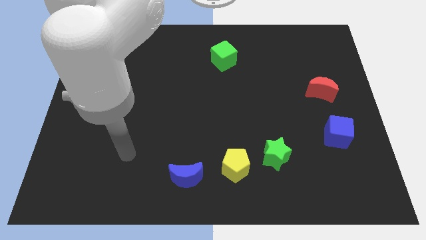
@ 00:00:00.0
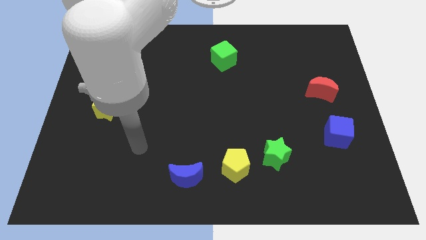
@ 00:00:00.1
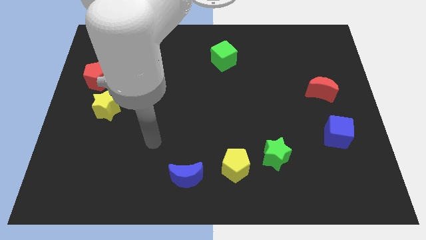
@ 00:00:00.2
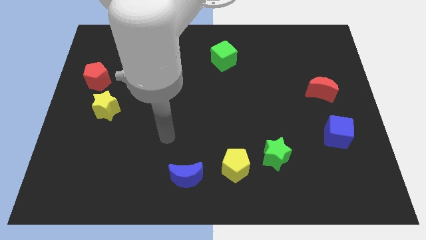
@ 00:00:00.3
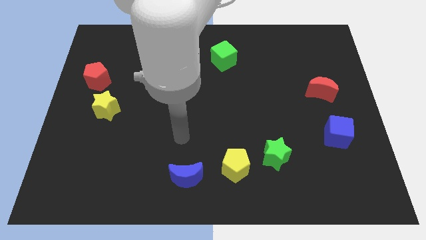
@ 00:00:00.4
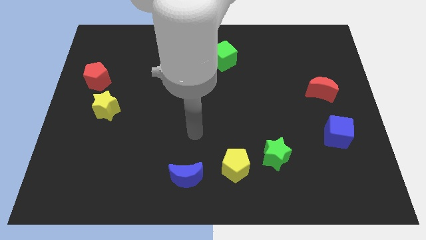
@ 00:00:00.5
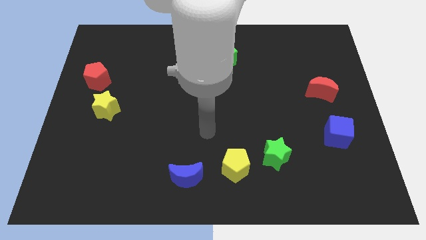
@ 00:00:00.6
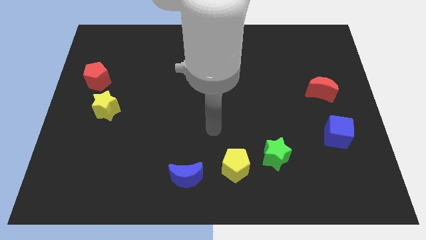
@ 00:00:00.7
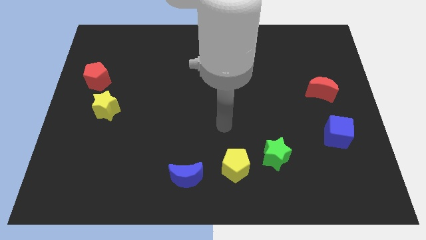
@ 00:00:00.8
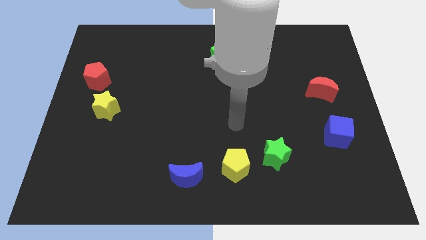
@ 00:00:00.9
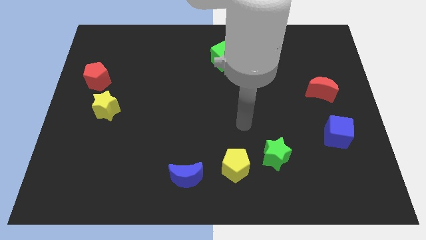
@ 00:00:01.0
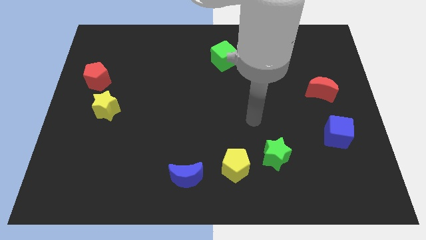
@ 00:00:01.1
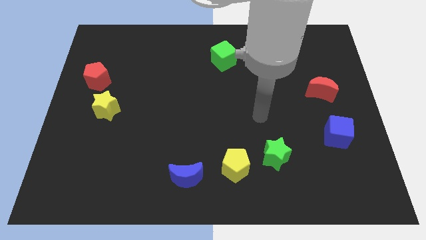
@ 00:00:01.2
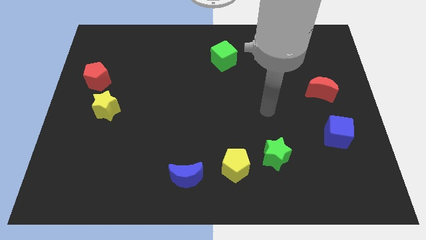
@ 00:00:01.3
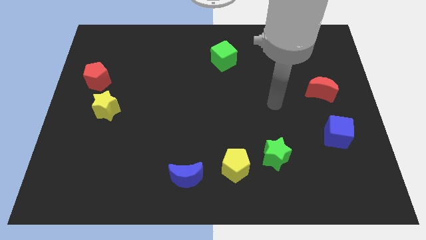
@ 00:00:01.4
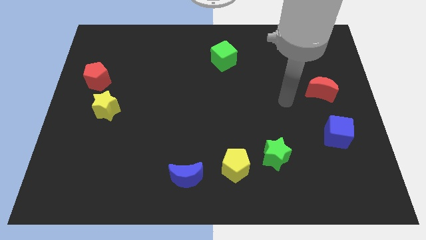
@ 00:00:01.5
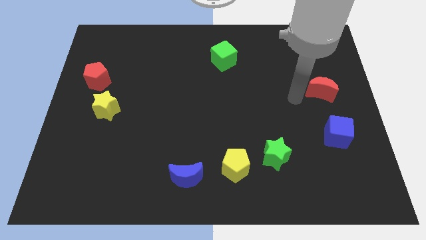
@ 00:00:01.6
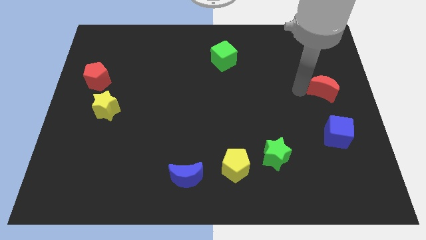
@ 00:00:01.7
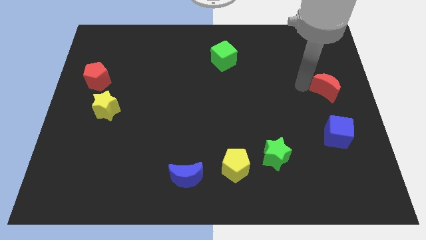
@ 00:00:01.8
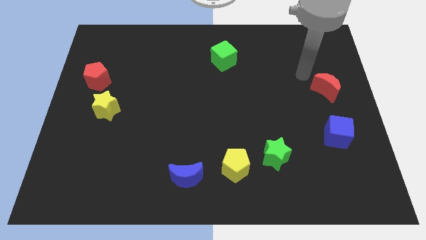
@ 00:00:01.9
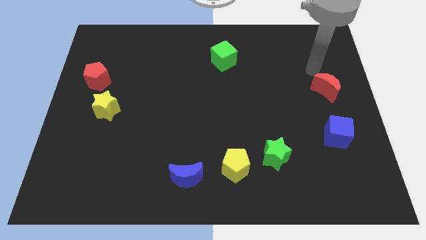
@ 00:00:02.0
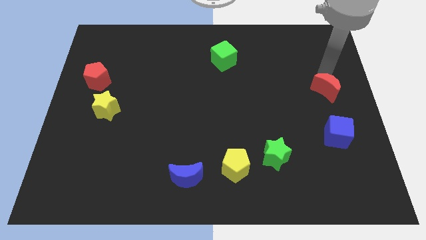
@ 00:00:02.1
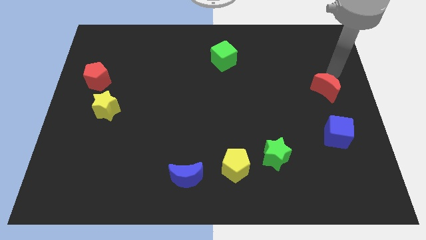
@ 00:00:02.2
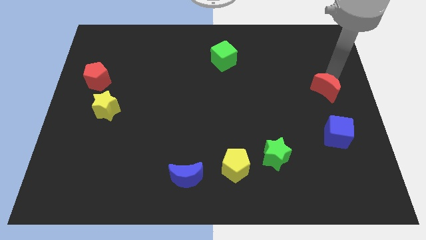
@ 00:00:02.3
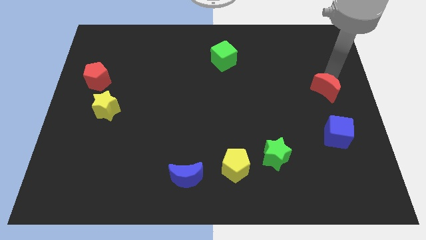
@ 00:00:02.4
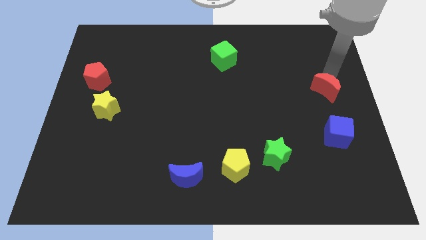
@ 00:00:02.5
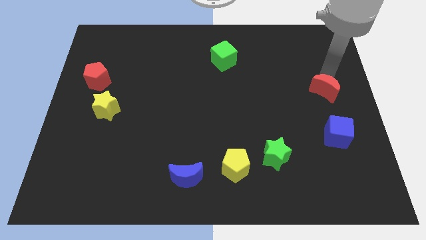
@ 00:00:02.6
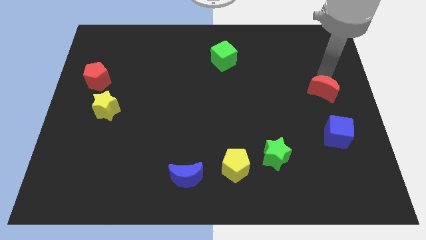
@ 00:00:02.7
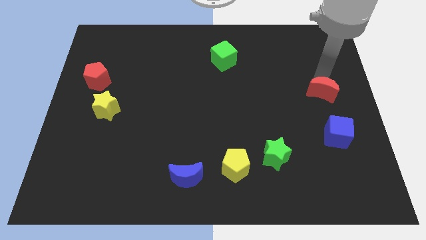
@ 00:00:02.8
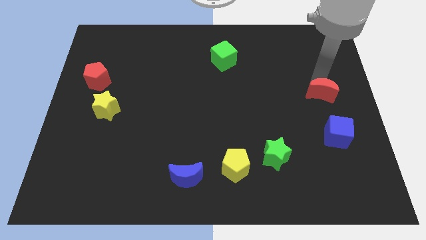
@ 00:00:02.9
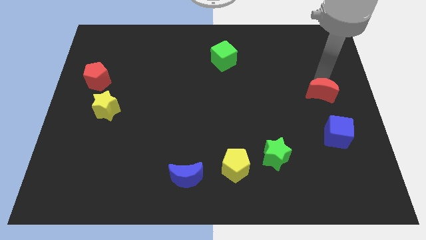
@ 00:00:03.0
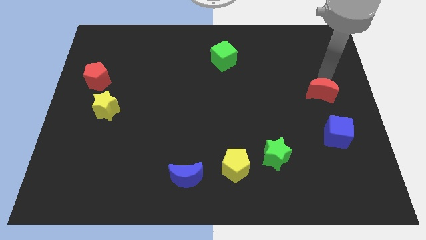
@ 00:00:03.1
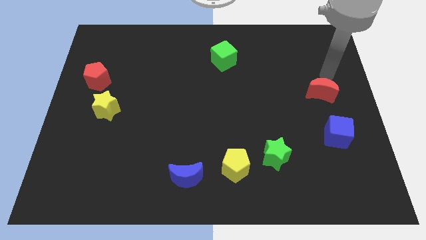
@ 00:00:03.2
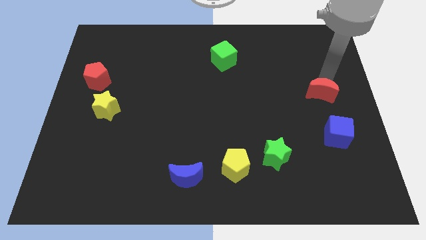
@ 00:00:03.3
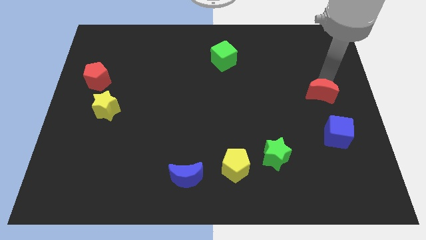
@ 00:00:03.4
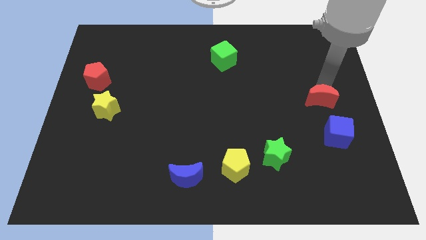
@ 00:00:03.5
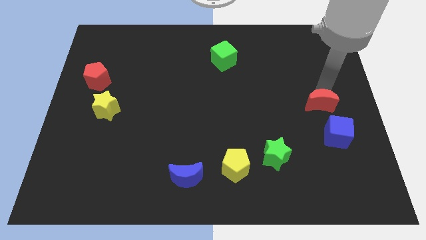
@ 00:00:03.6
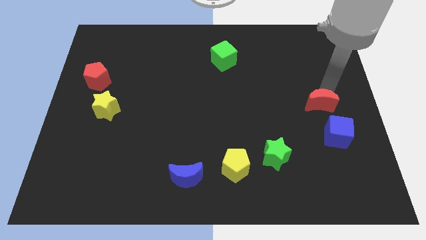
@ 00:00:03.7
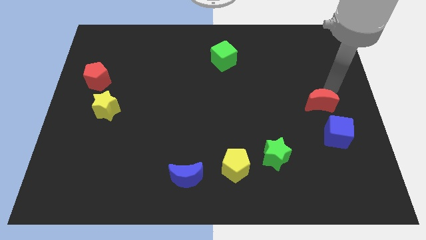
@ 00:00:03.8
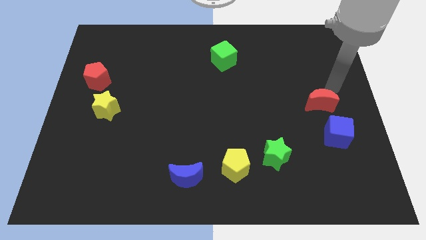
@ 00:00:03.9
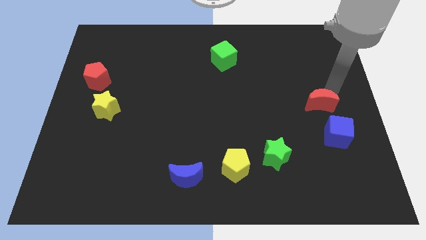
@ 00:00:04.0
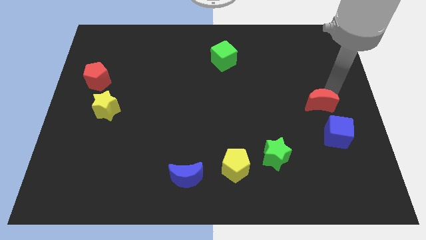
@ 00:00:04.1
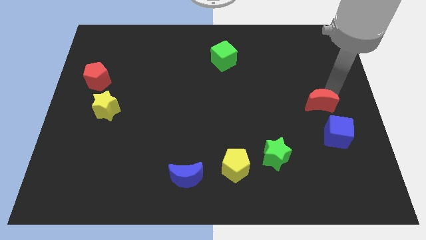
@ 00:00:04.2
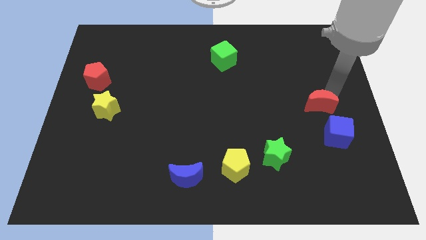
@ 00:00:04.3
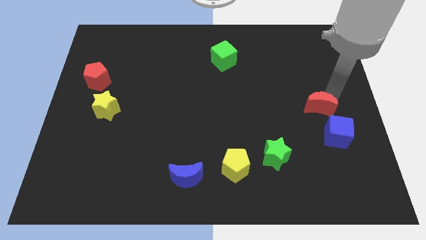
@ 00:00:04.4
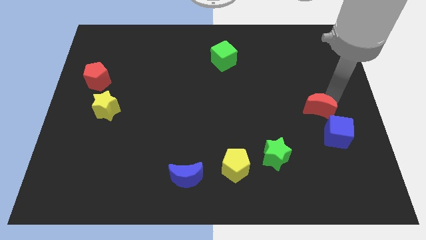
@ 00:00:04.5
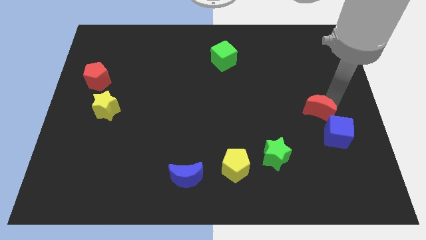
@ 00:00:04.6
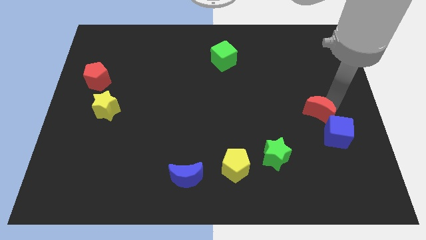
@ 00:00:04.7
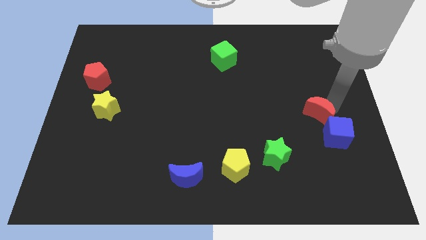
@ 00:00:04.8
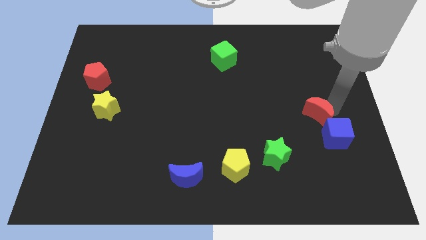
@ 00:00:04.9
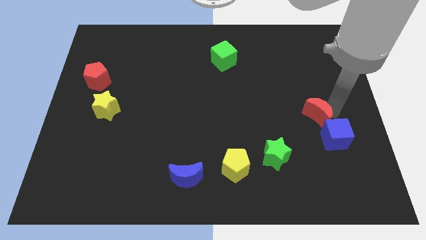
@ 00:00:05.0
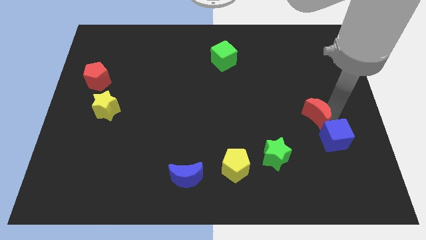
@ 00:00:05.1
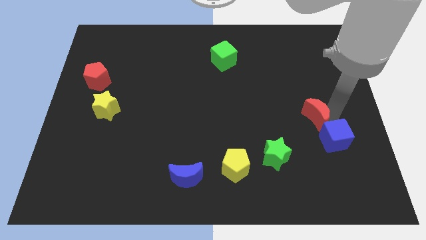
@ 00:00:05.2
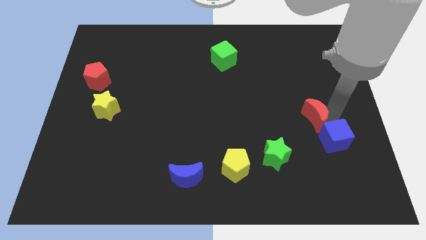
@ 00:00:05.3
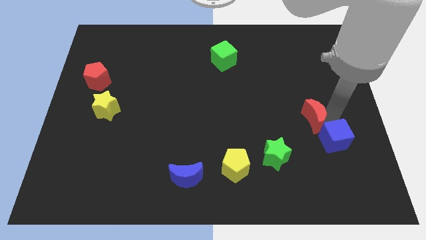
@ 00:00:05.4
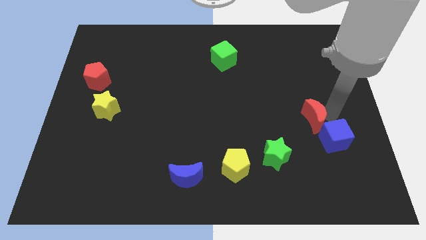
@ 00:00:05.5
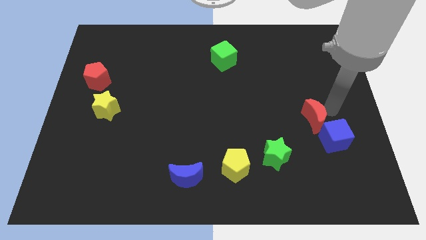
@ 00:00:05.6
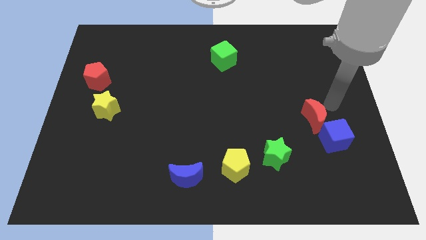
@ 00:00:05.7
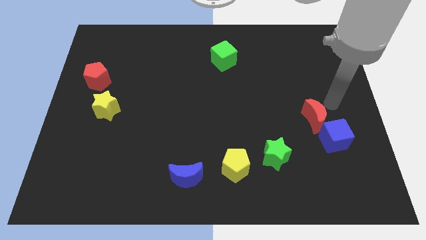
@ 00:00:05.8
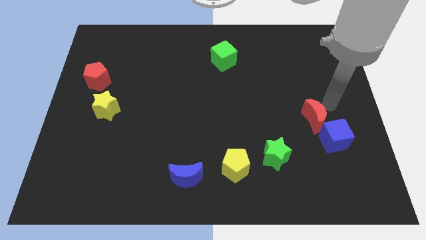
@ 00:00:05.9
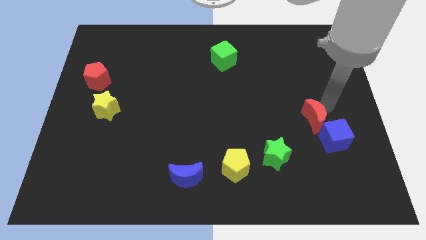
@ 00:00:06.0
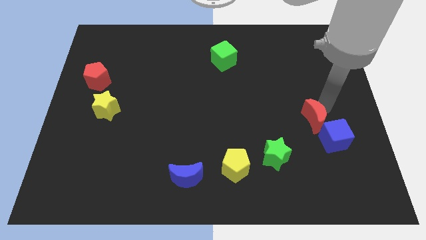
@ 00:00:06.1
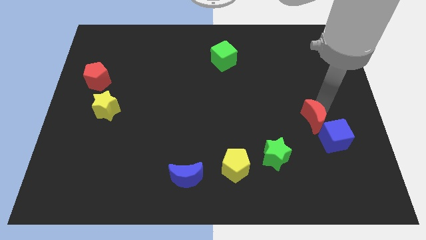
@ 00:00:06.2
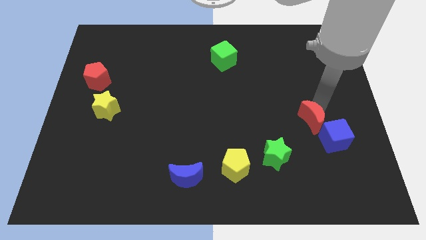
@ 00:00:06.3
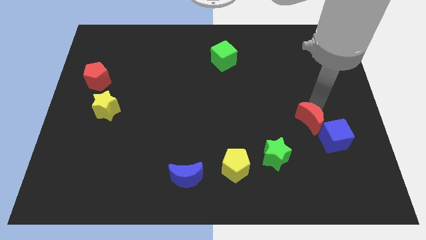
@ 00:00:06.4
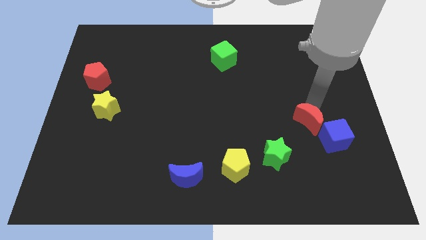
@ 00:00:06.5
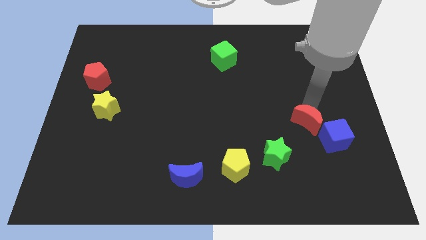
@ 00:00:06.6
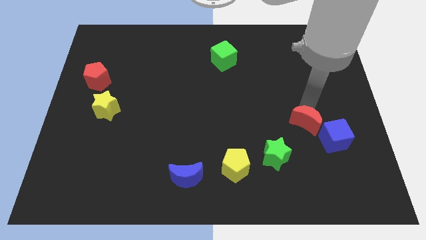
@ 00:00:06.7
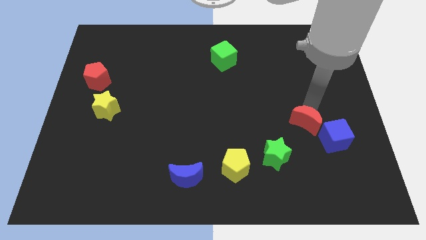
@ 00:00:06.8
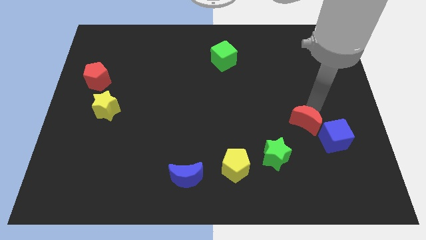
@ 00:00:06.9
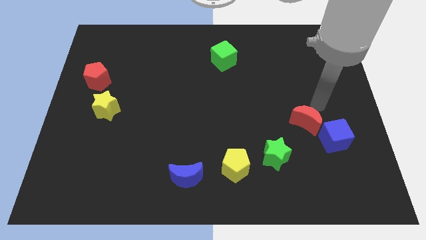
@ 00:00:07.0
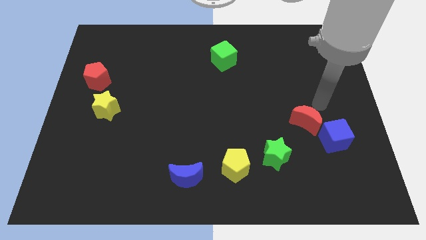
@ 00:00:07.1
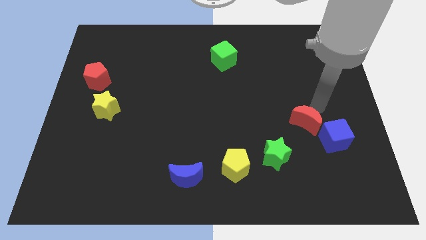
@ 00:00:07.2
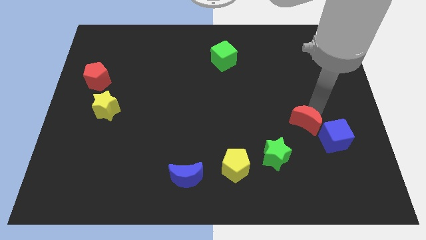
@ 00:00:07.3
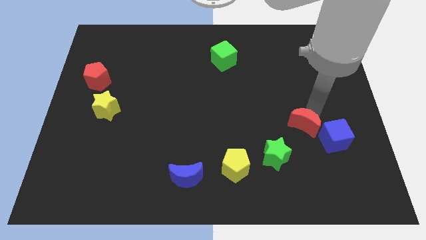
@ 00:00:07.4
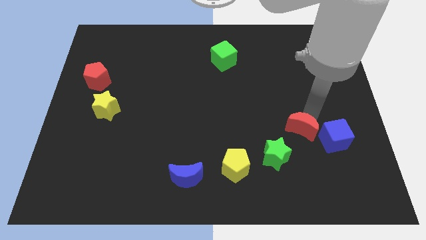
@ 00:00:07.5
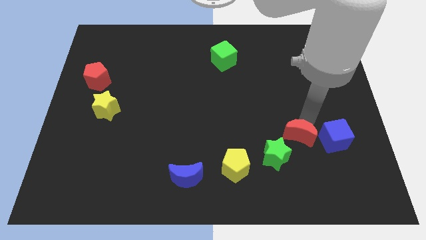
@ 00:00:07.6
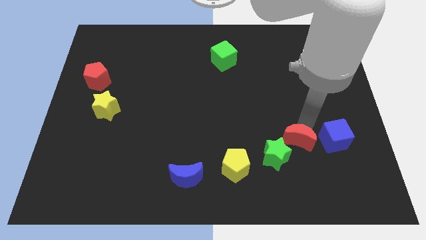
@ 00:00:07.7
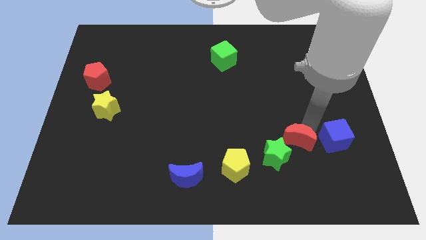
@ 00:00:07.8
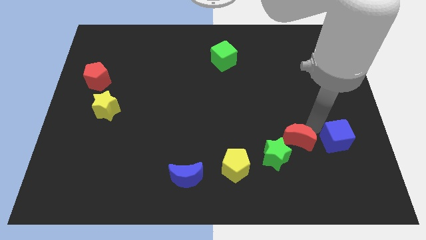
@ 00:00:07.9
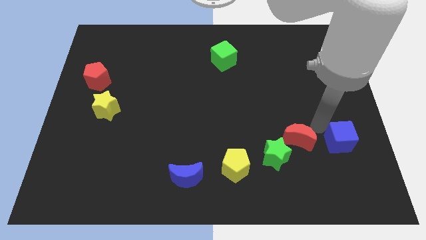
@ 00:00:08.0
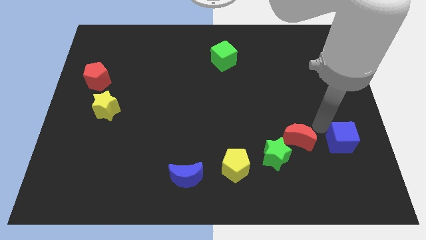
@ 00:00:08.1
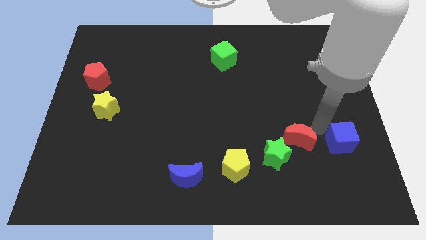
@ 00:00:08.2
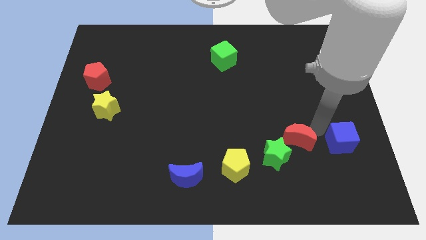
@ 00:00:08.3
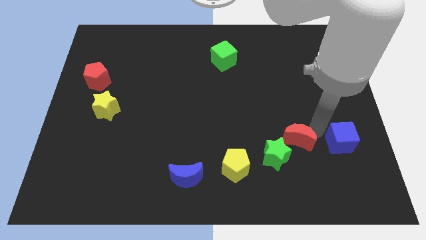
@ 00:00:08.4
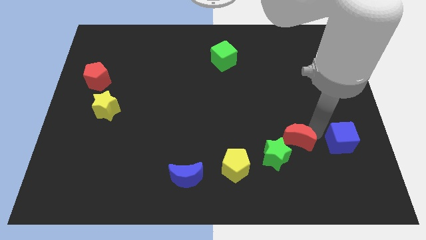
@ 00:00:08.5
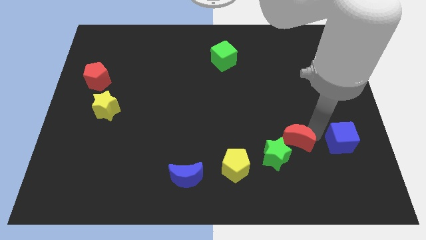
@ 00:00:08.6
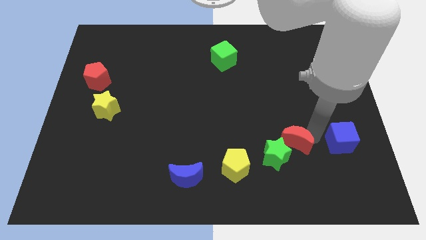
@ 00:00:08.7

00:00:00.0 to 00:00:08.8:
slide the red moon next to the green star
